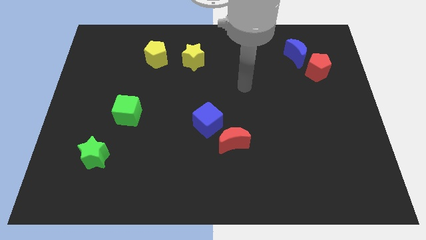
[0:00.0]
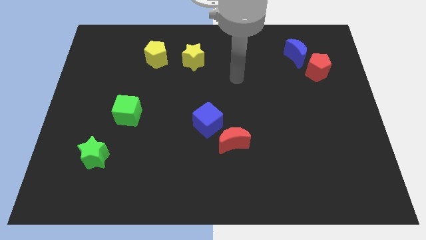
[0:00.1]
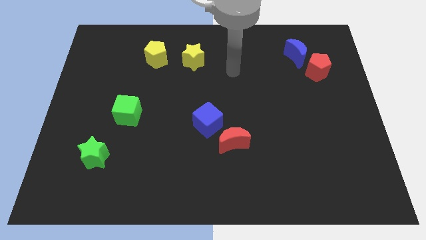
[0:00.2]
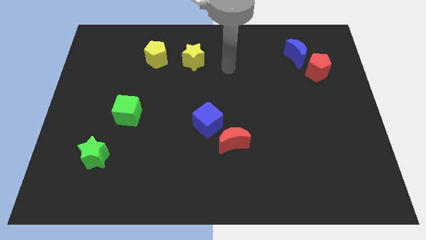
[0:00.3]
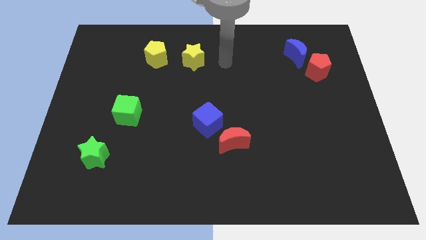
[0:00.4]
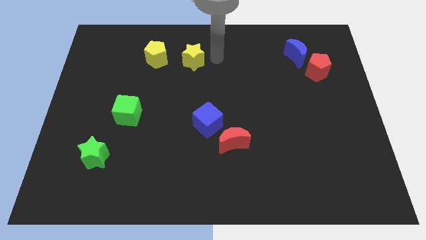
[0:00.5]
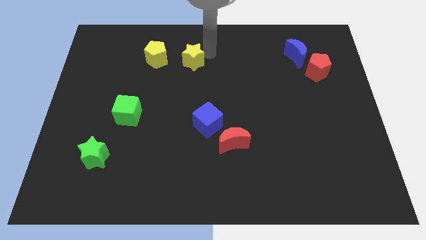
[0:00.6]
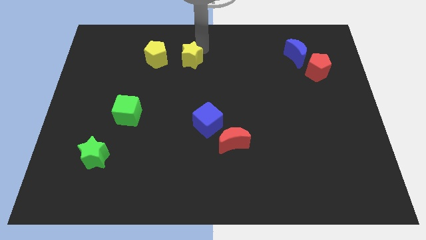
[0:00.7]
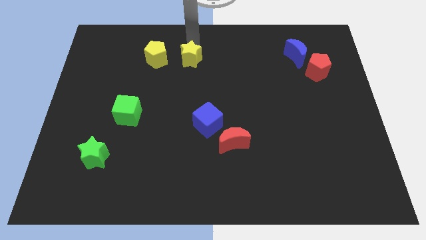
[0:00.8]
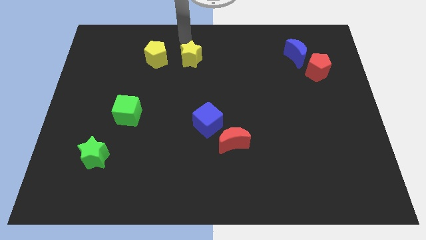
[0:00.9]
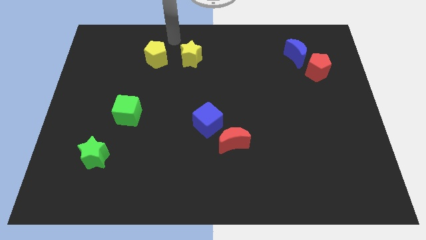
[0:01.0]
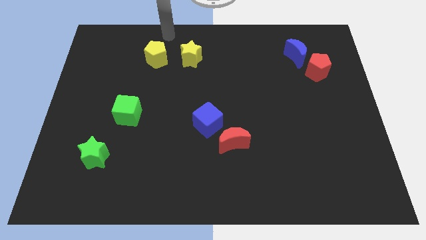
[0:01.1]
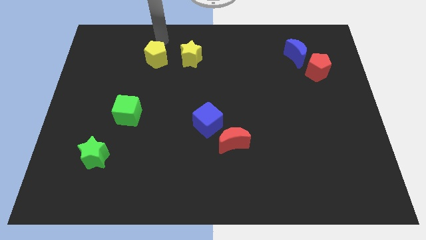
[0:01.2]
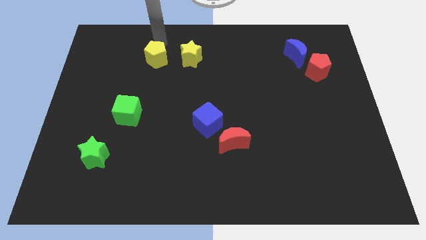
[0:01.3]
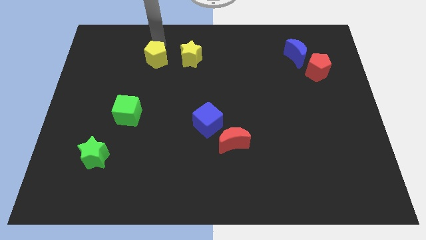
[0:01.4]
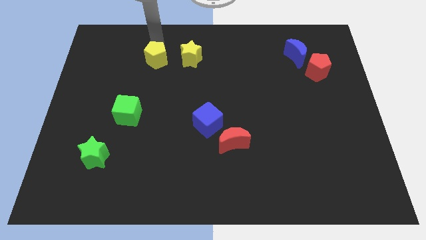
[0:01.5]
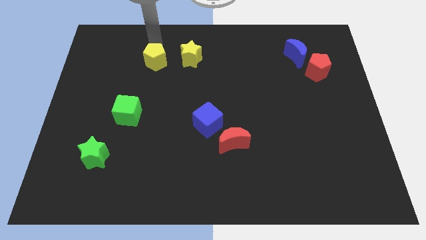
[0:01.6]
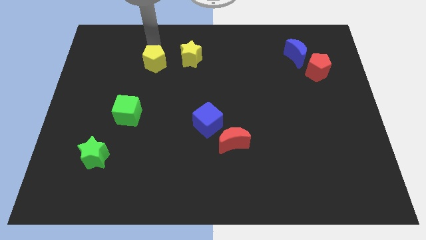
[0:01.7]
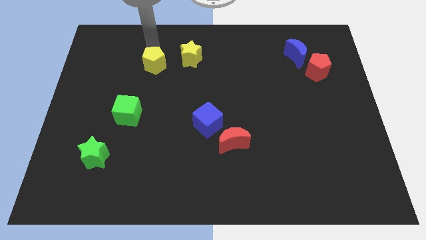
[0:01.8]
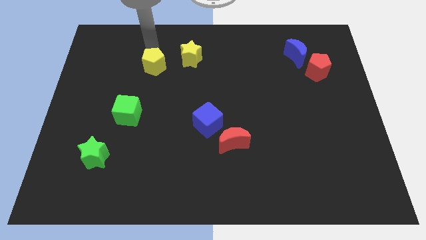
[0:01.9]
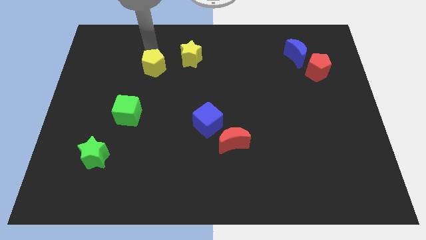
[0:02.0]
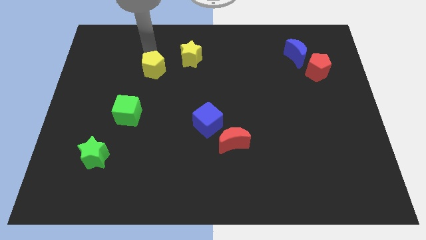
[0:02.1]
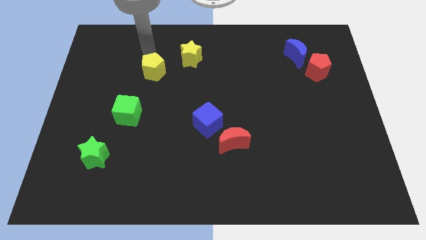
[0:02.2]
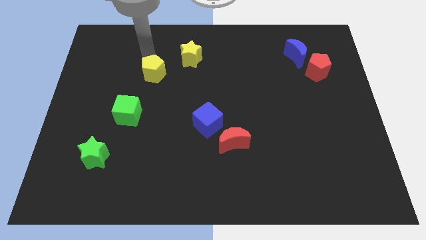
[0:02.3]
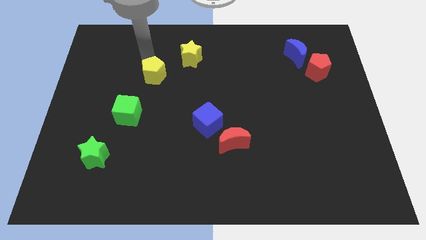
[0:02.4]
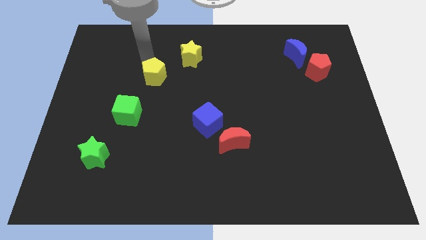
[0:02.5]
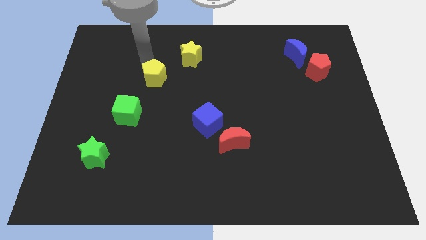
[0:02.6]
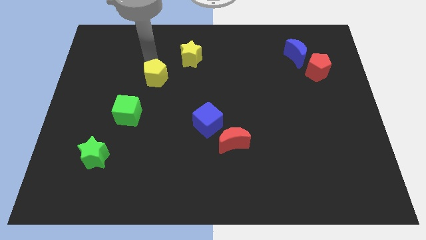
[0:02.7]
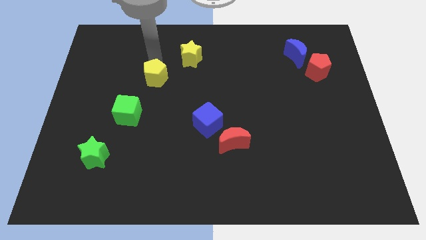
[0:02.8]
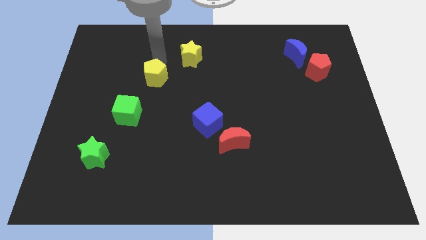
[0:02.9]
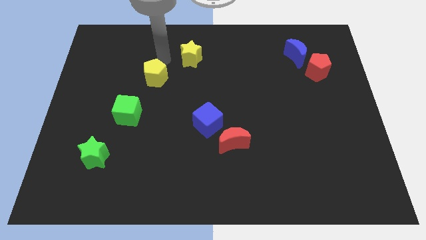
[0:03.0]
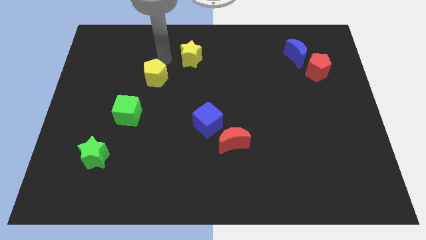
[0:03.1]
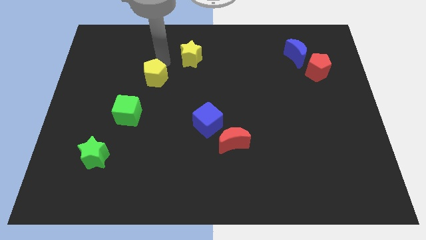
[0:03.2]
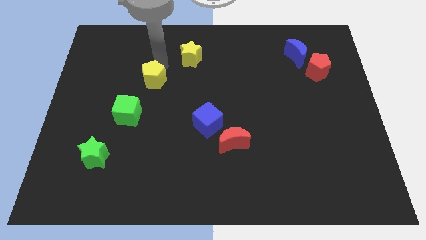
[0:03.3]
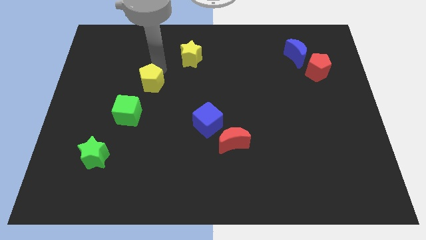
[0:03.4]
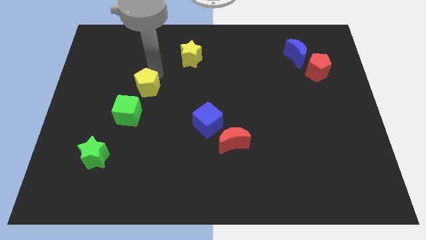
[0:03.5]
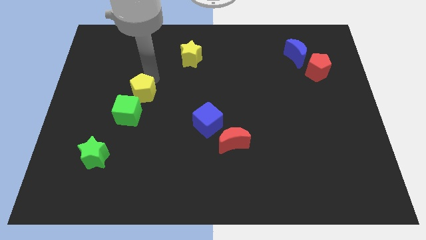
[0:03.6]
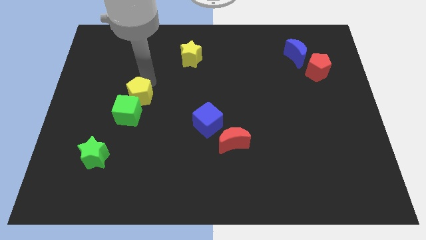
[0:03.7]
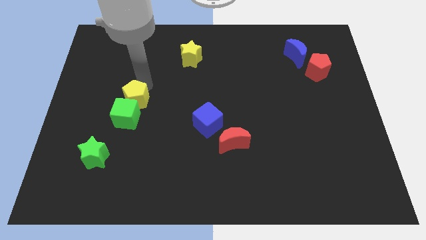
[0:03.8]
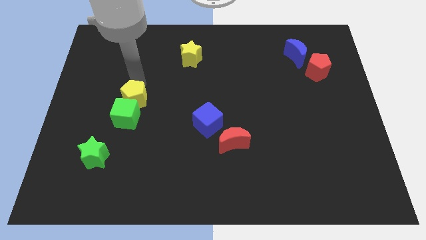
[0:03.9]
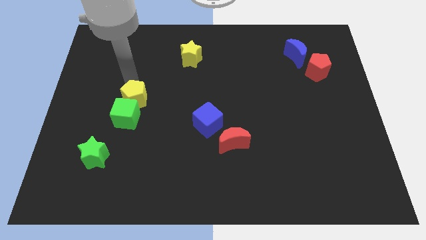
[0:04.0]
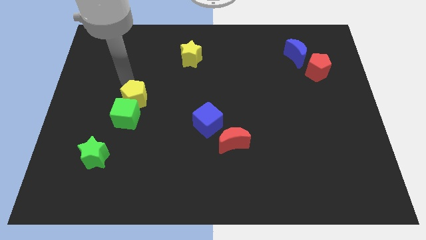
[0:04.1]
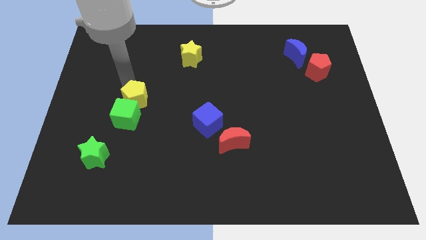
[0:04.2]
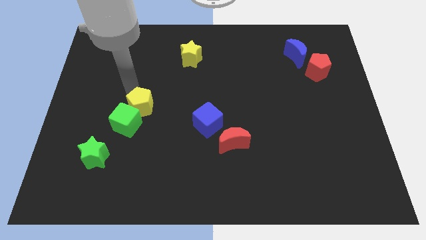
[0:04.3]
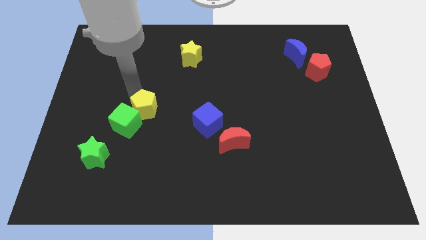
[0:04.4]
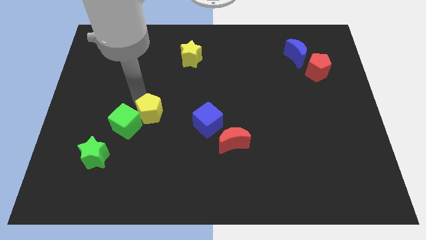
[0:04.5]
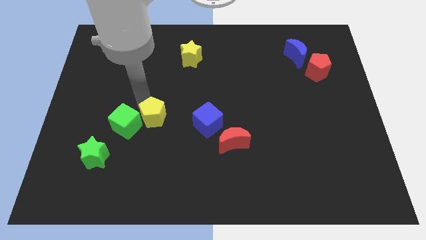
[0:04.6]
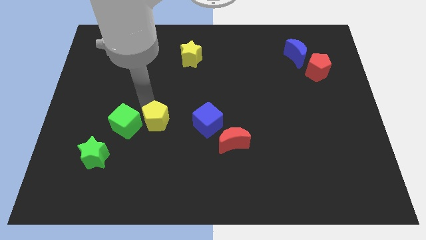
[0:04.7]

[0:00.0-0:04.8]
push the yellow pentagon downwards

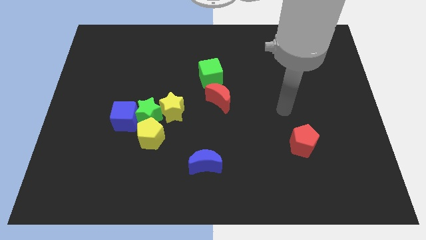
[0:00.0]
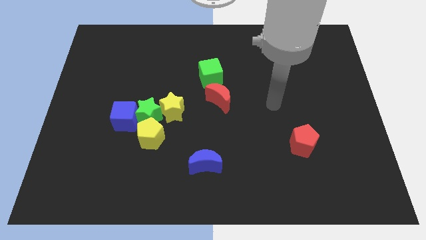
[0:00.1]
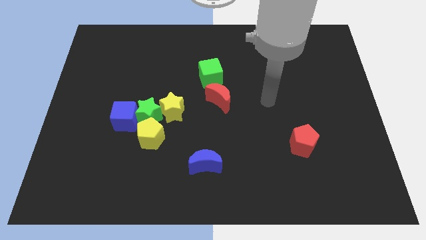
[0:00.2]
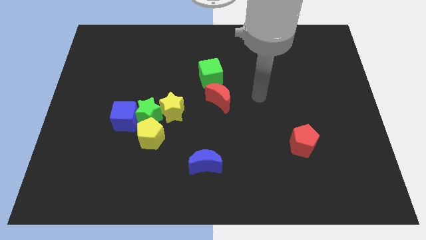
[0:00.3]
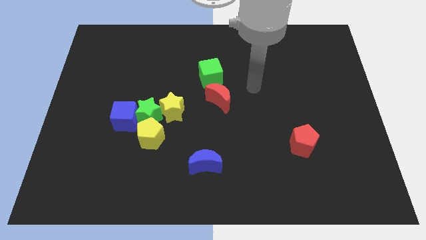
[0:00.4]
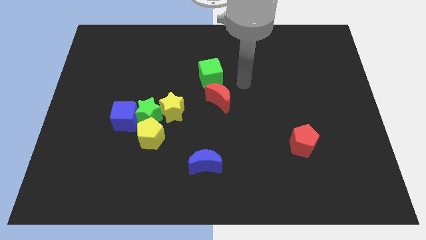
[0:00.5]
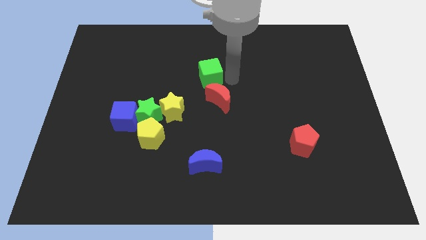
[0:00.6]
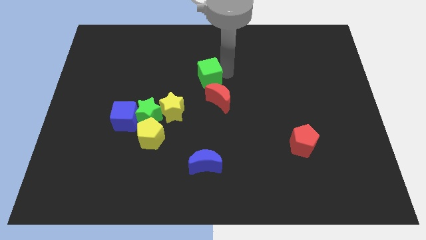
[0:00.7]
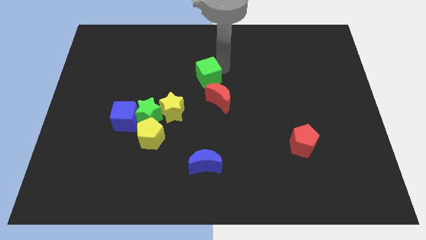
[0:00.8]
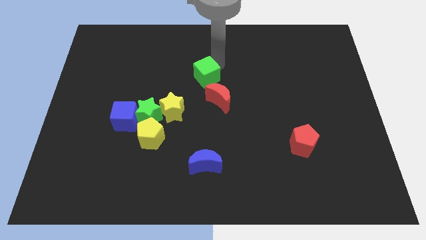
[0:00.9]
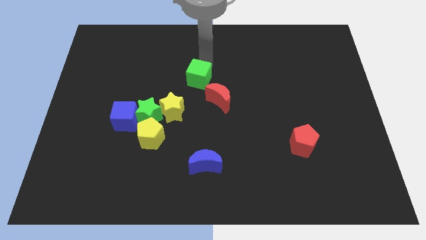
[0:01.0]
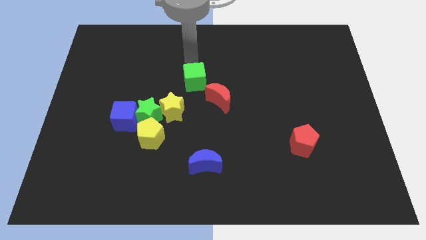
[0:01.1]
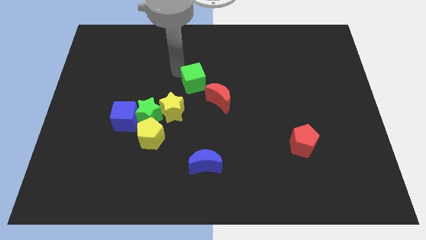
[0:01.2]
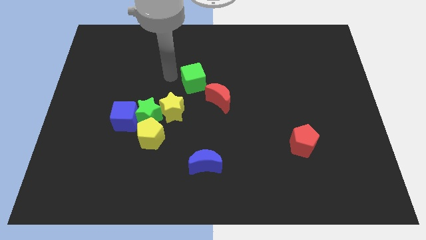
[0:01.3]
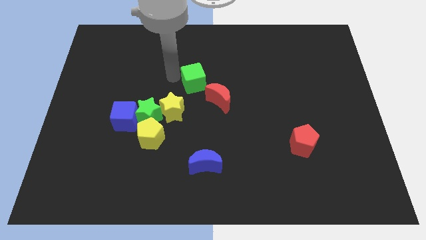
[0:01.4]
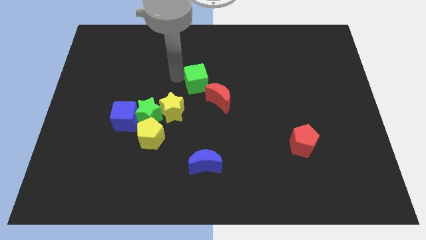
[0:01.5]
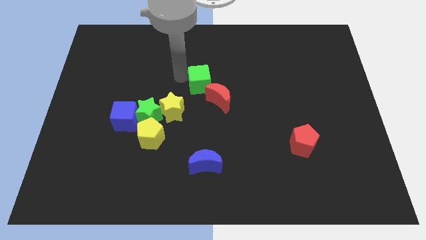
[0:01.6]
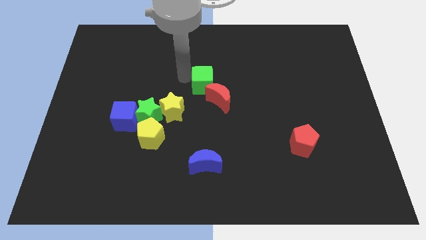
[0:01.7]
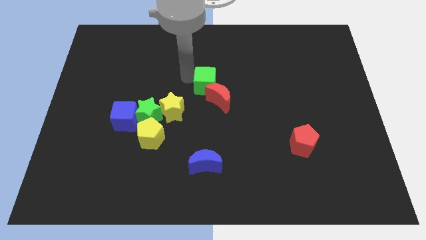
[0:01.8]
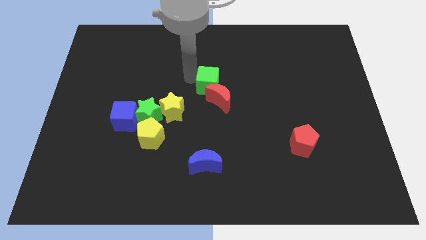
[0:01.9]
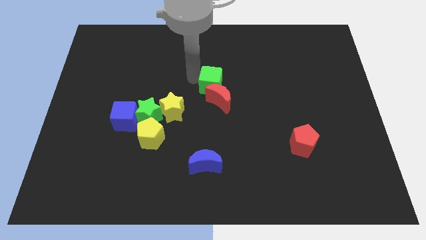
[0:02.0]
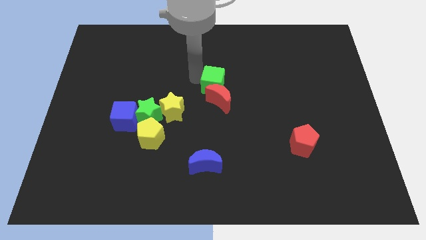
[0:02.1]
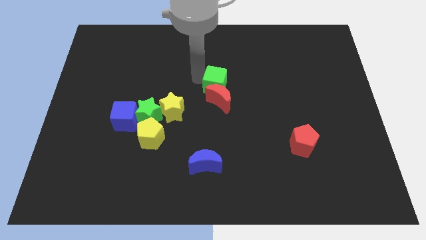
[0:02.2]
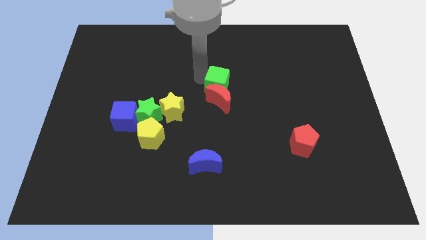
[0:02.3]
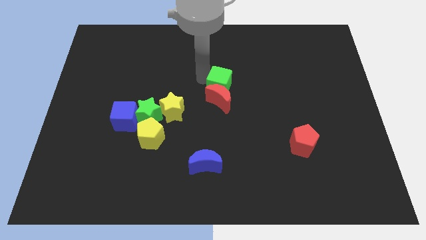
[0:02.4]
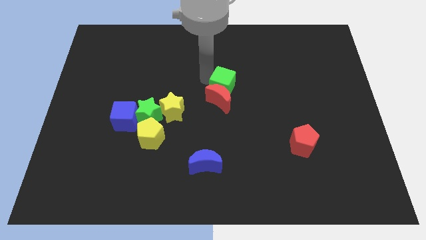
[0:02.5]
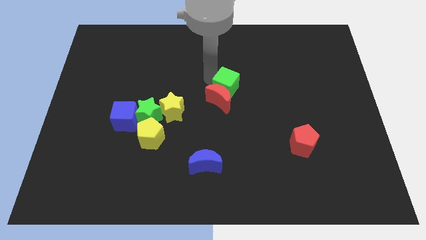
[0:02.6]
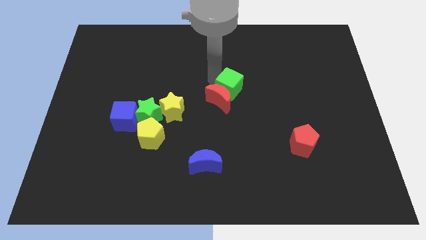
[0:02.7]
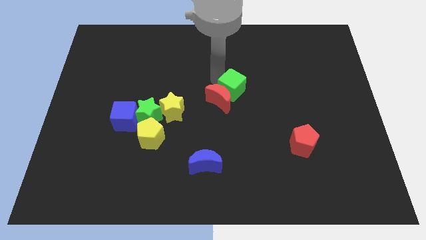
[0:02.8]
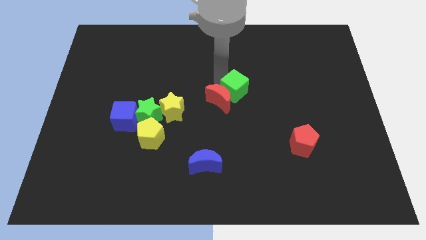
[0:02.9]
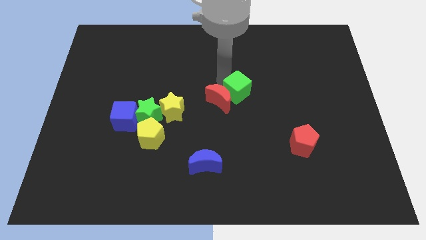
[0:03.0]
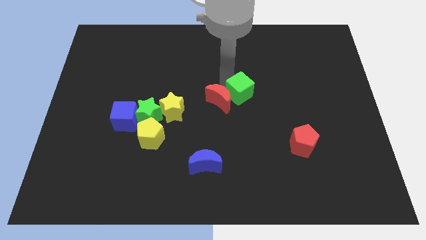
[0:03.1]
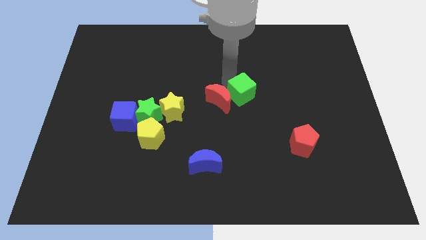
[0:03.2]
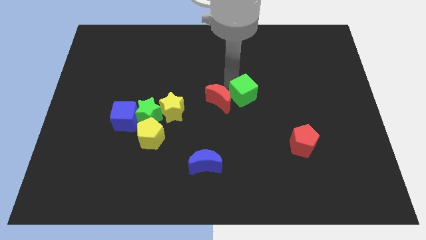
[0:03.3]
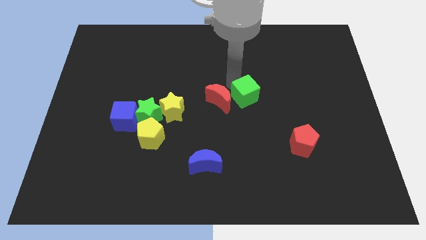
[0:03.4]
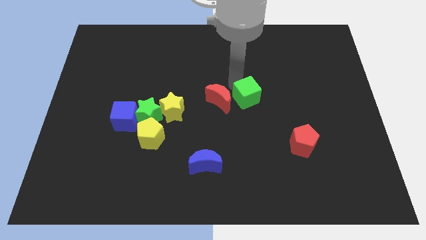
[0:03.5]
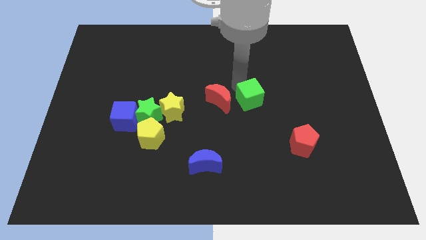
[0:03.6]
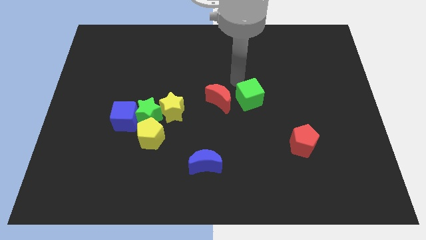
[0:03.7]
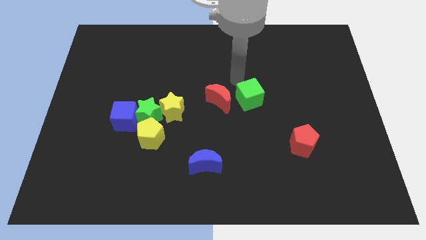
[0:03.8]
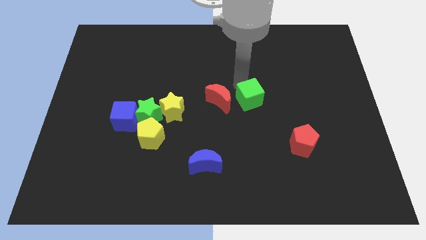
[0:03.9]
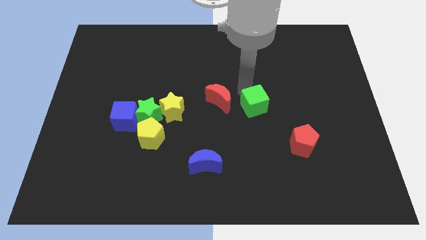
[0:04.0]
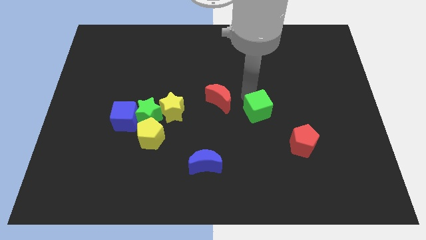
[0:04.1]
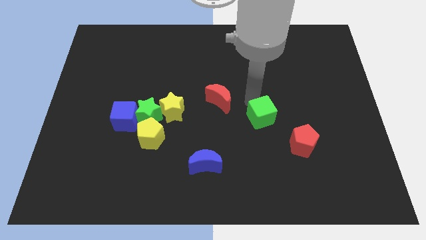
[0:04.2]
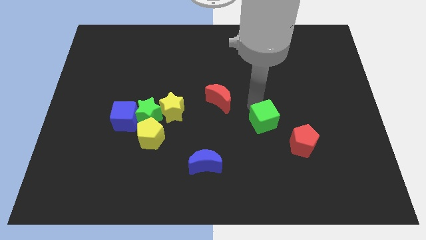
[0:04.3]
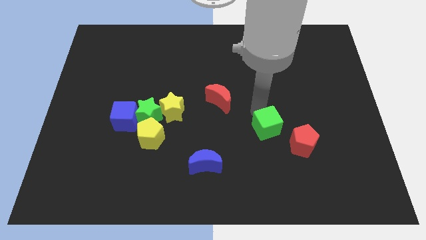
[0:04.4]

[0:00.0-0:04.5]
push the green cube downwards and to the right
